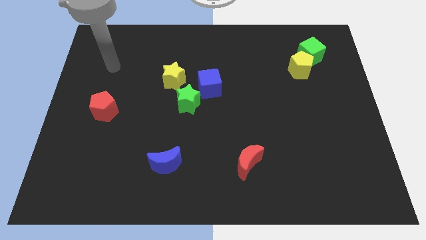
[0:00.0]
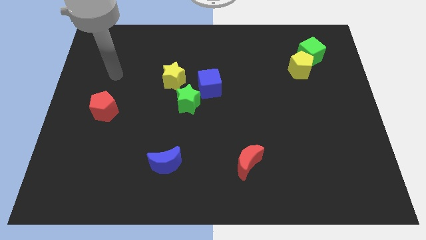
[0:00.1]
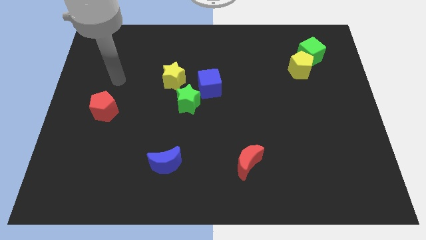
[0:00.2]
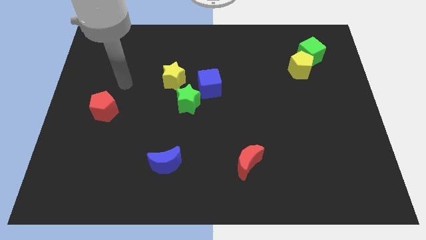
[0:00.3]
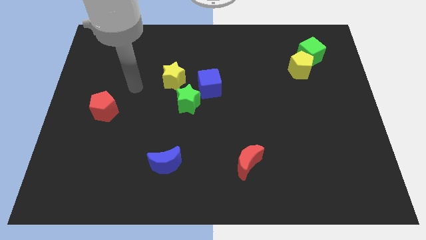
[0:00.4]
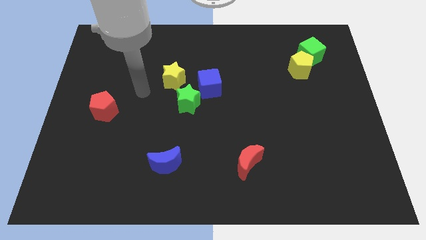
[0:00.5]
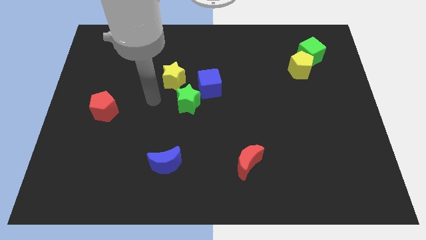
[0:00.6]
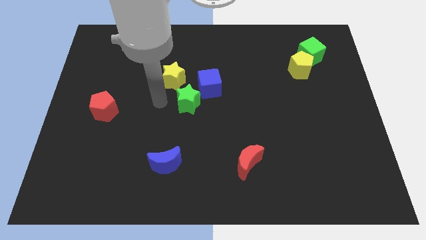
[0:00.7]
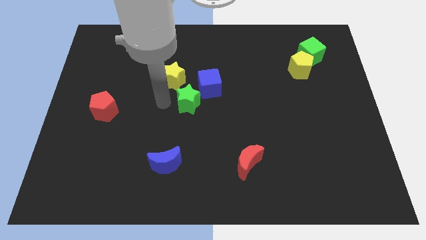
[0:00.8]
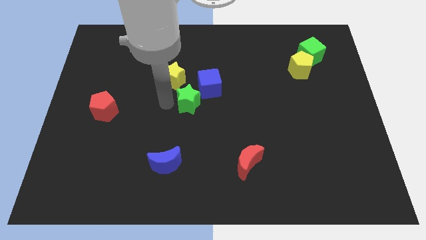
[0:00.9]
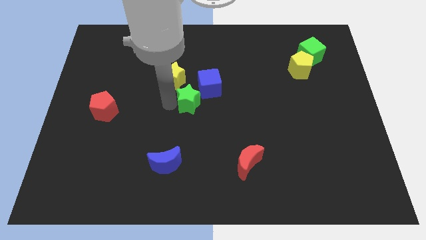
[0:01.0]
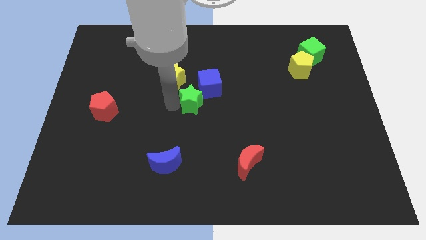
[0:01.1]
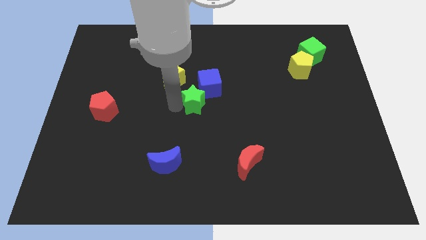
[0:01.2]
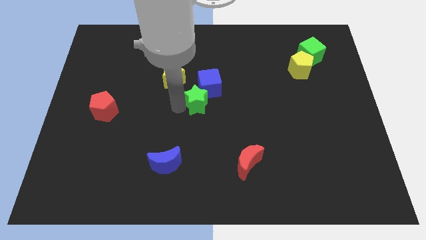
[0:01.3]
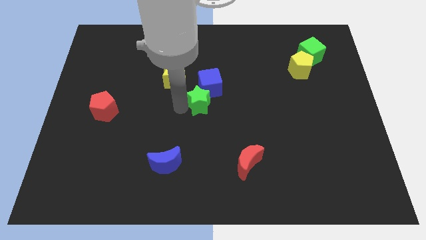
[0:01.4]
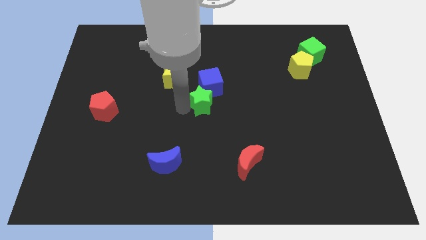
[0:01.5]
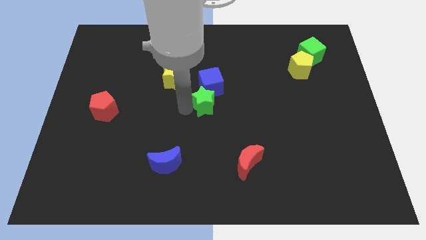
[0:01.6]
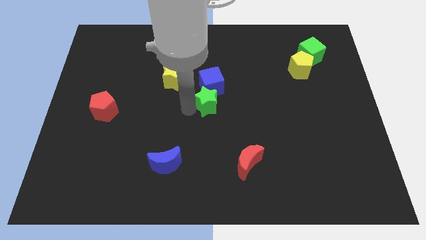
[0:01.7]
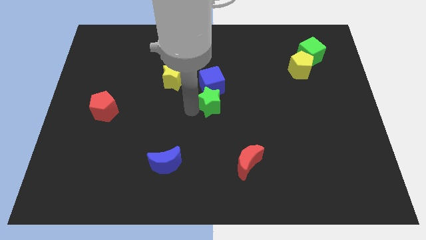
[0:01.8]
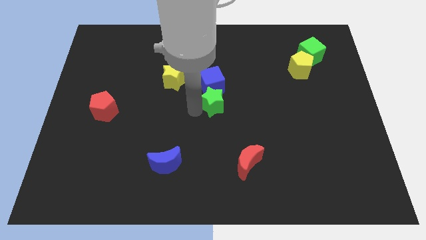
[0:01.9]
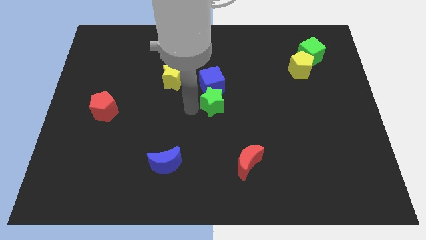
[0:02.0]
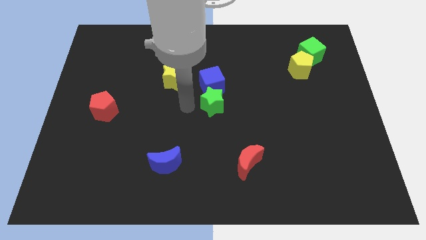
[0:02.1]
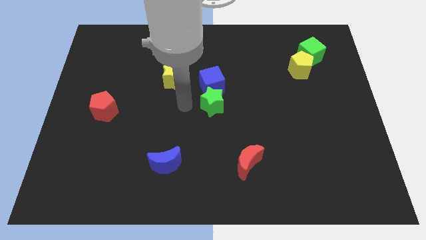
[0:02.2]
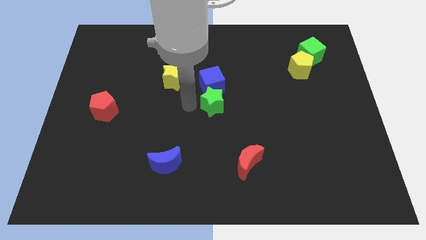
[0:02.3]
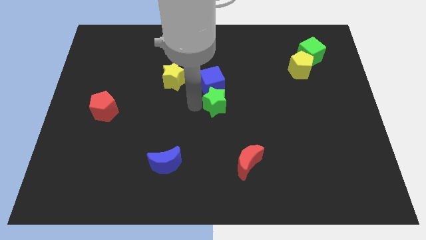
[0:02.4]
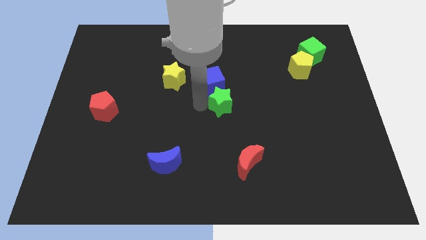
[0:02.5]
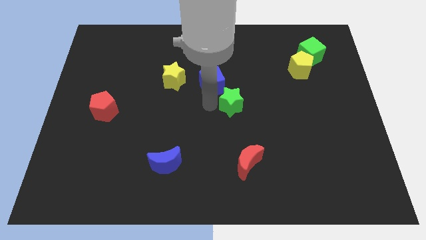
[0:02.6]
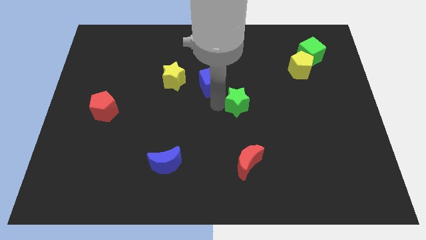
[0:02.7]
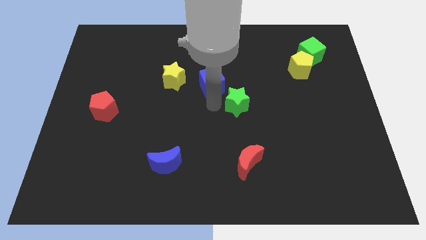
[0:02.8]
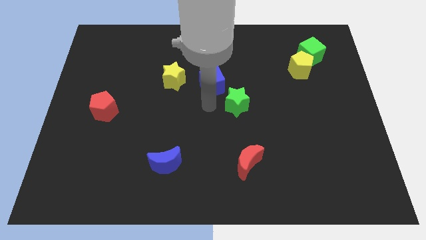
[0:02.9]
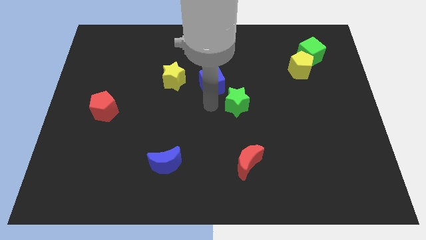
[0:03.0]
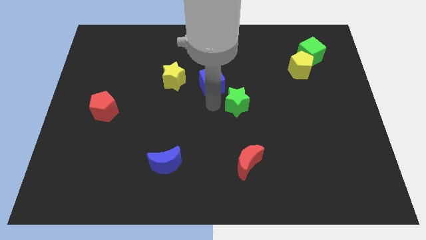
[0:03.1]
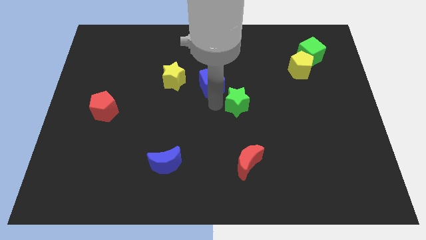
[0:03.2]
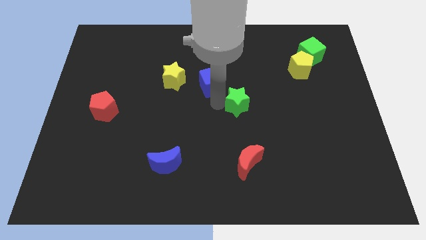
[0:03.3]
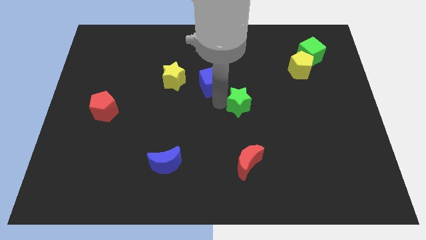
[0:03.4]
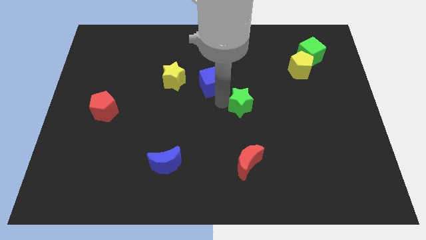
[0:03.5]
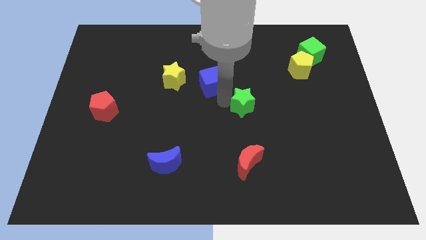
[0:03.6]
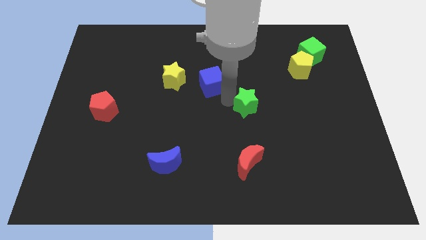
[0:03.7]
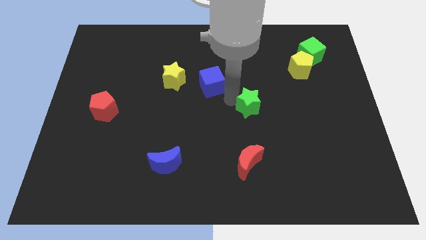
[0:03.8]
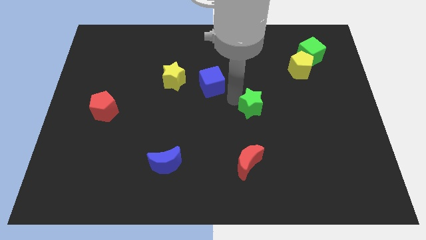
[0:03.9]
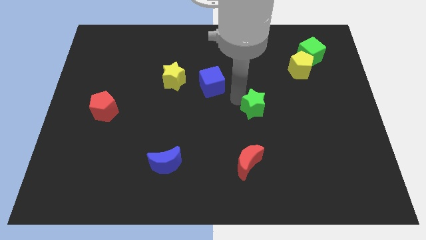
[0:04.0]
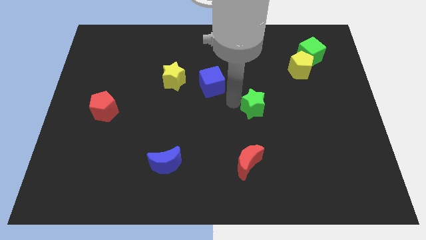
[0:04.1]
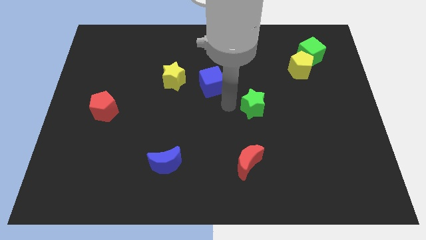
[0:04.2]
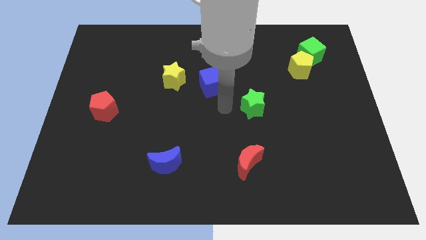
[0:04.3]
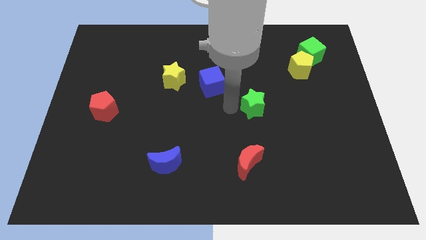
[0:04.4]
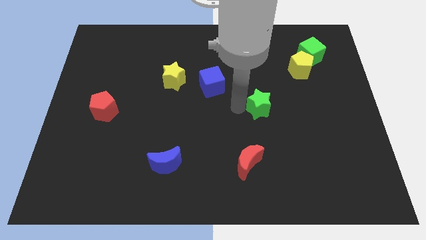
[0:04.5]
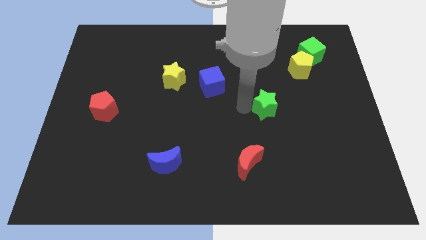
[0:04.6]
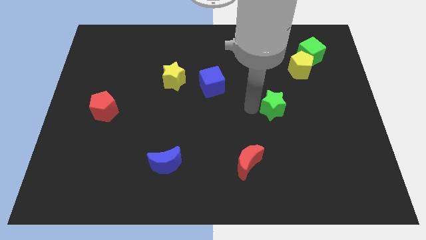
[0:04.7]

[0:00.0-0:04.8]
push the green star right

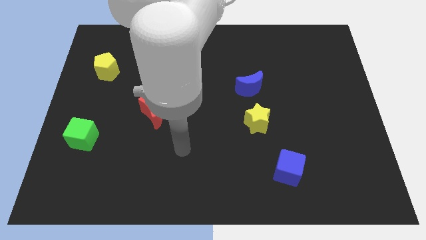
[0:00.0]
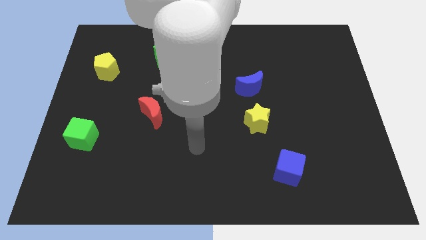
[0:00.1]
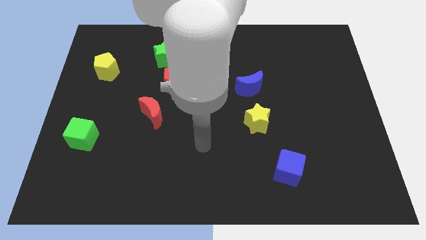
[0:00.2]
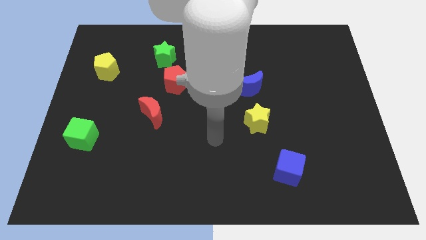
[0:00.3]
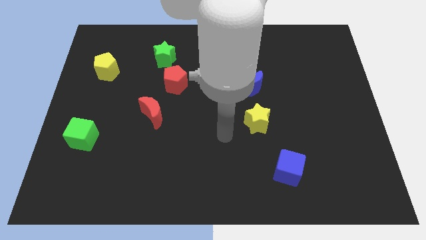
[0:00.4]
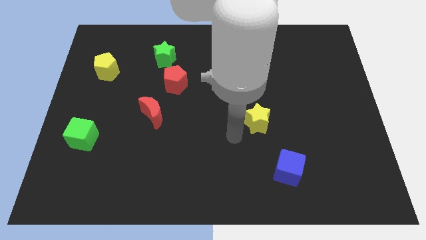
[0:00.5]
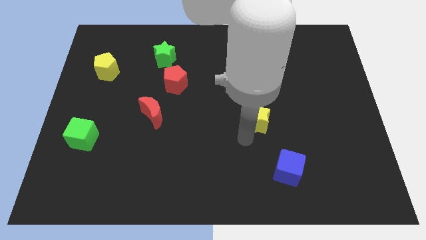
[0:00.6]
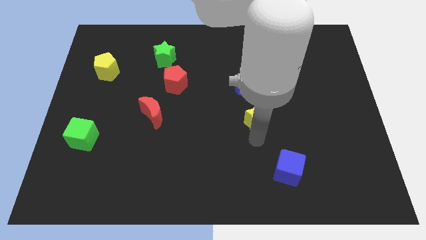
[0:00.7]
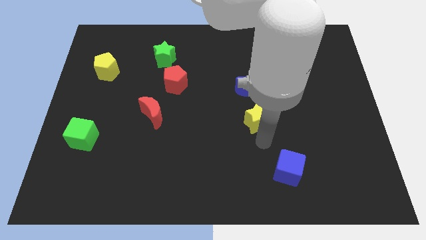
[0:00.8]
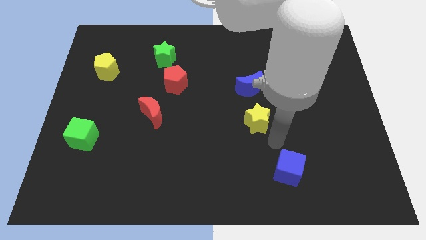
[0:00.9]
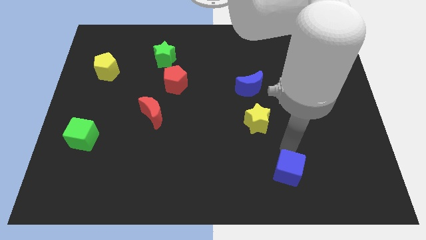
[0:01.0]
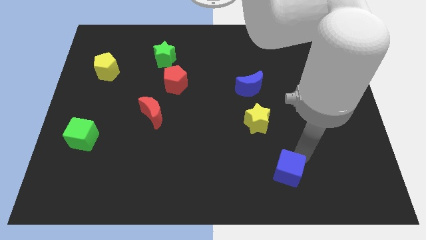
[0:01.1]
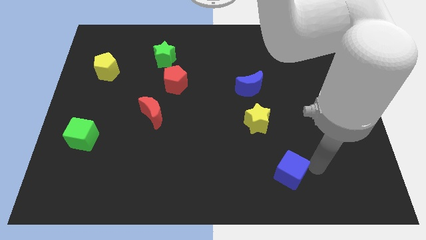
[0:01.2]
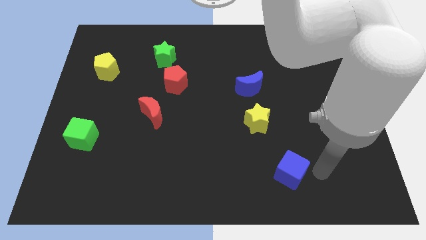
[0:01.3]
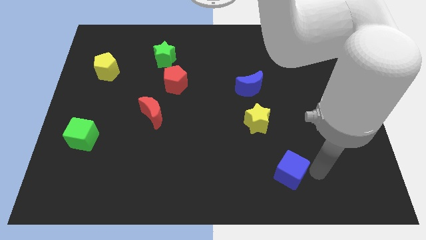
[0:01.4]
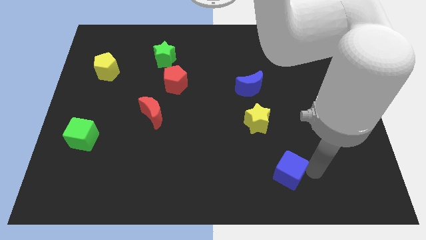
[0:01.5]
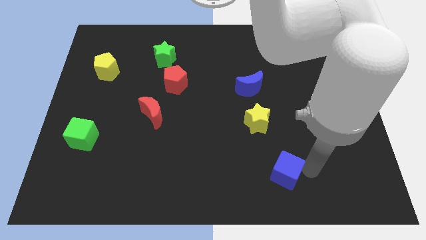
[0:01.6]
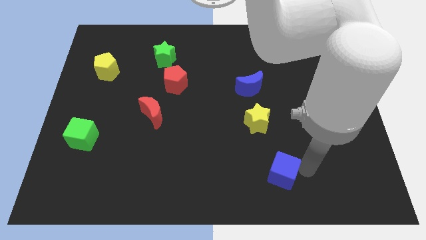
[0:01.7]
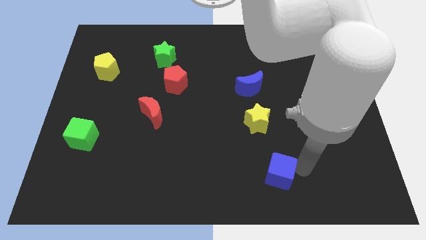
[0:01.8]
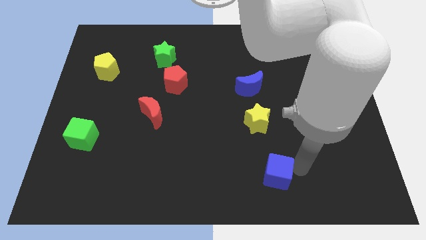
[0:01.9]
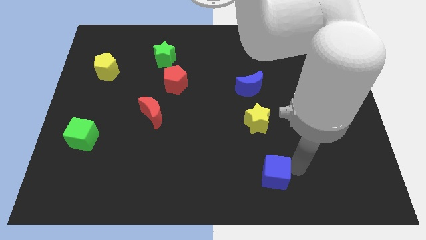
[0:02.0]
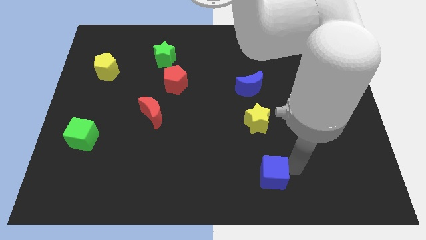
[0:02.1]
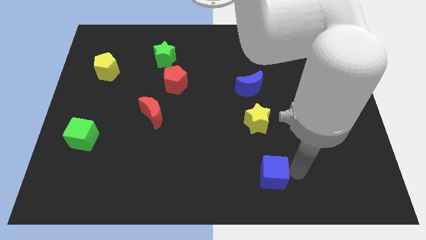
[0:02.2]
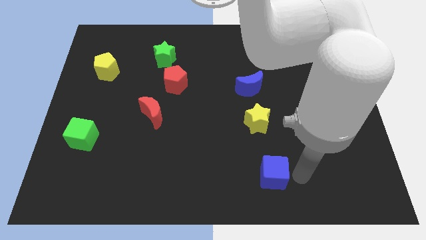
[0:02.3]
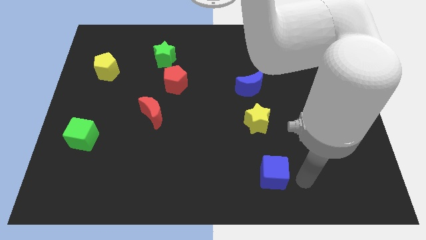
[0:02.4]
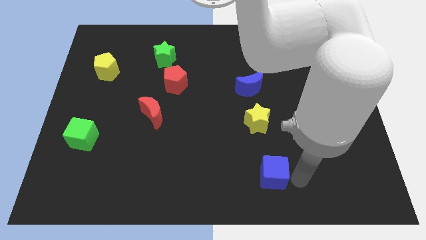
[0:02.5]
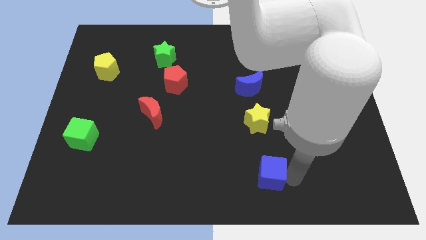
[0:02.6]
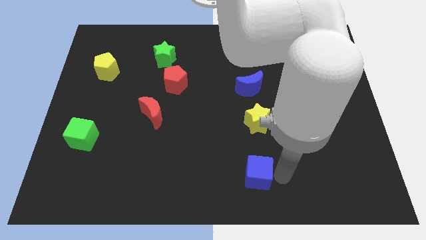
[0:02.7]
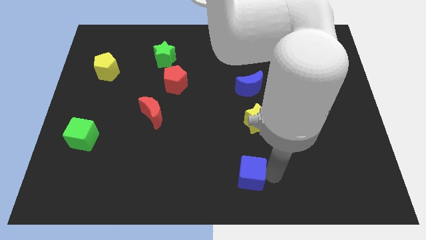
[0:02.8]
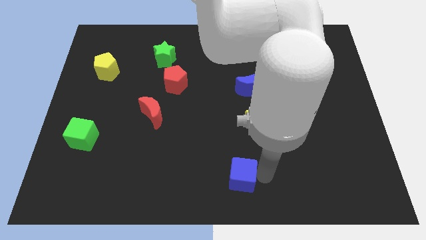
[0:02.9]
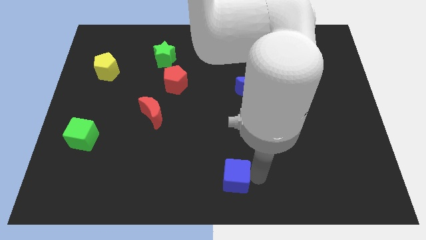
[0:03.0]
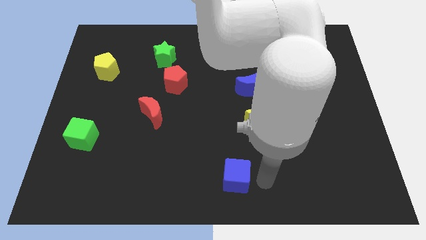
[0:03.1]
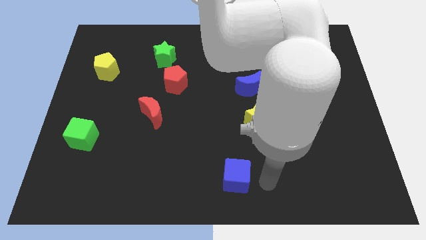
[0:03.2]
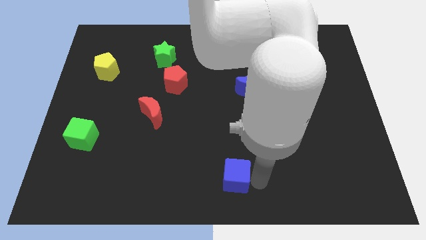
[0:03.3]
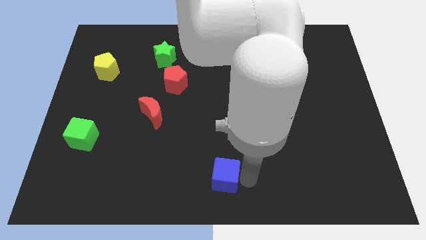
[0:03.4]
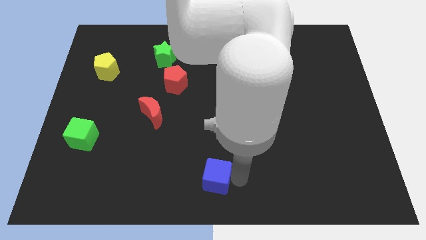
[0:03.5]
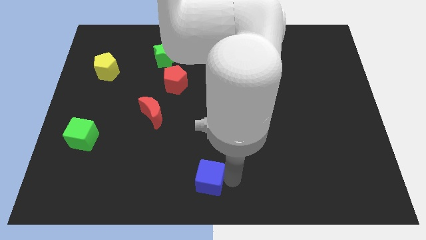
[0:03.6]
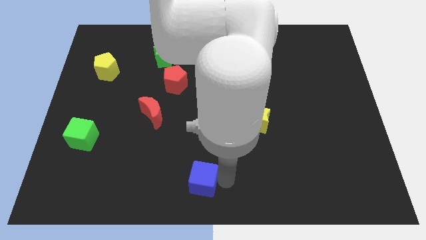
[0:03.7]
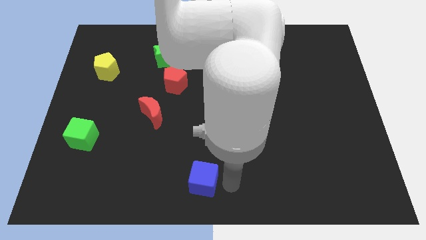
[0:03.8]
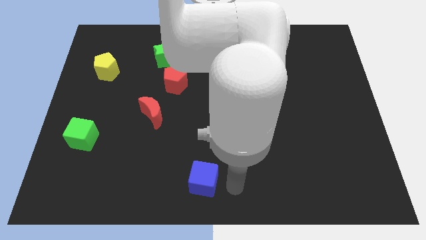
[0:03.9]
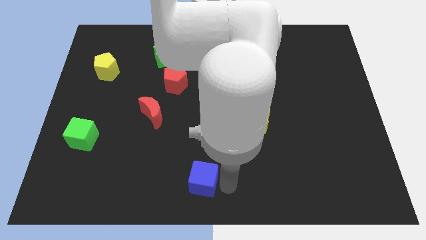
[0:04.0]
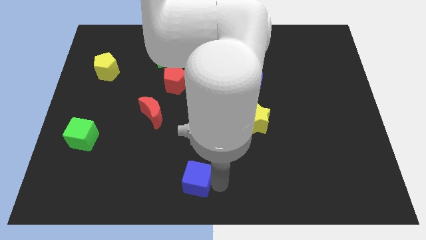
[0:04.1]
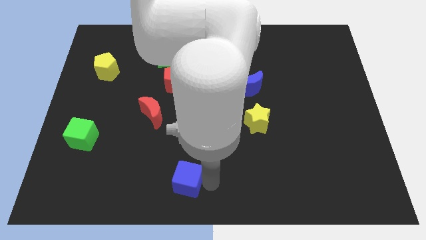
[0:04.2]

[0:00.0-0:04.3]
push the blue cube left
